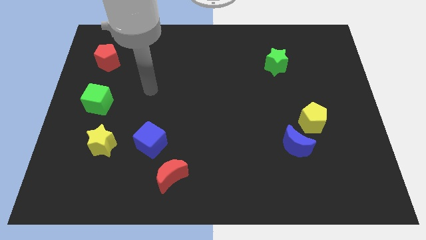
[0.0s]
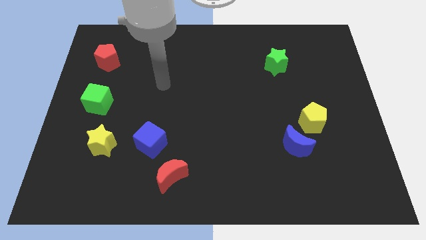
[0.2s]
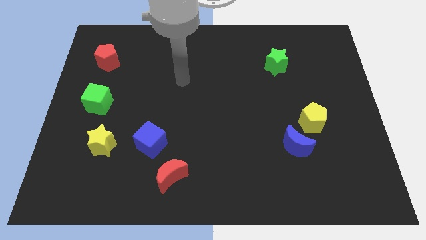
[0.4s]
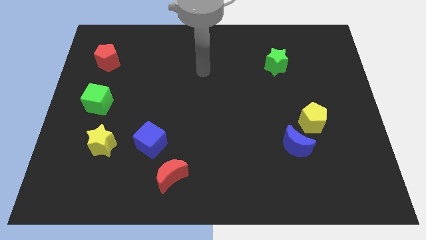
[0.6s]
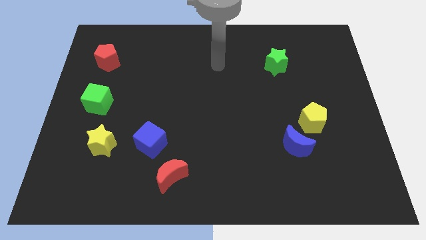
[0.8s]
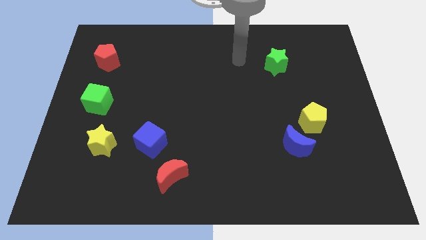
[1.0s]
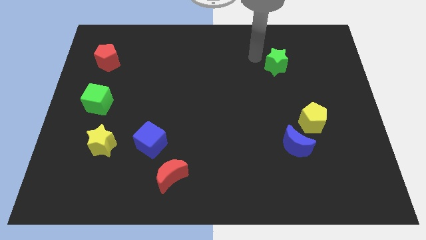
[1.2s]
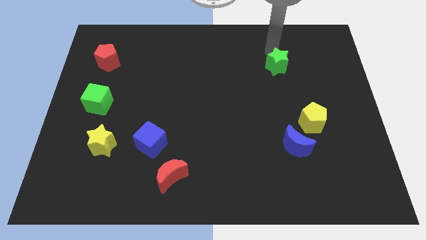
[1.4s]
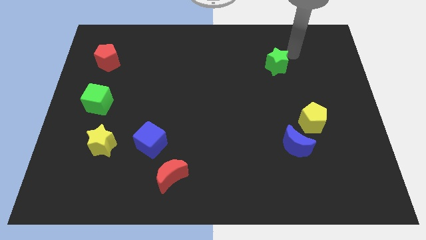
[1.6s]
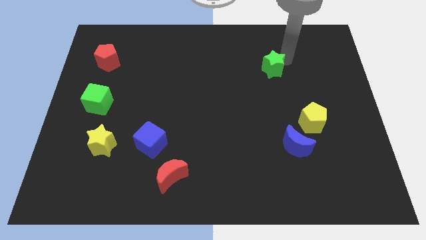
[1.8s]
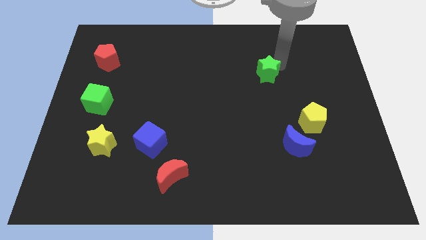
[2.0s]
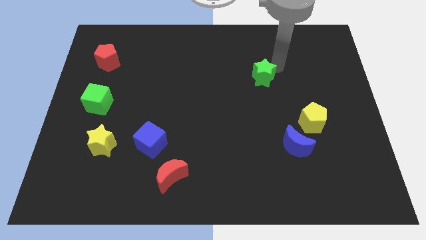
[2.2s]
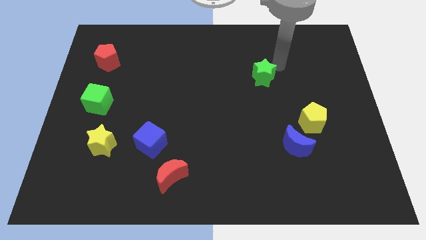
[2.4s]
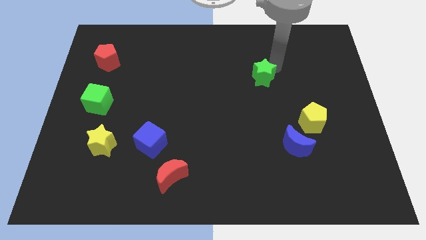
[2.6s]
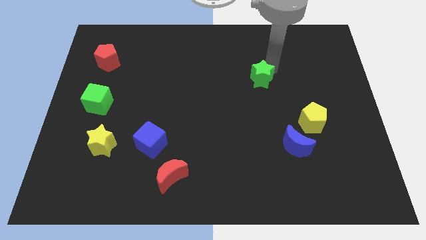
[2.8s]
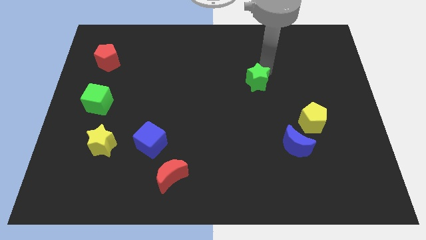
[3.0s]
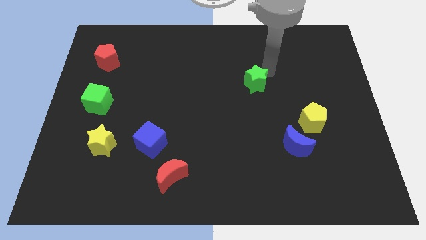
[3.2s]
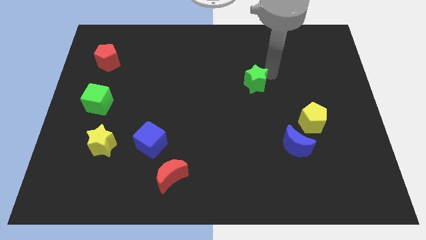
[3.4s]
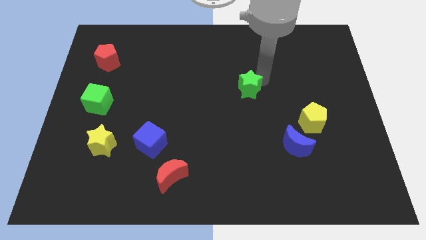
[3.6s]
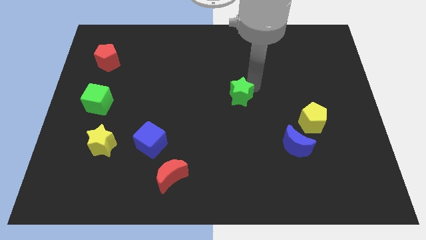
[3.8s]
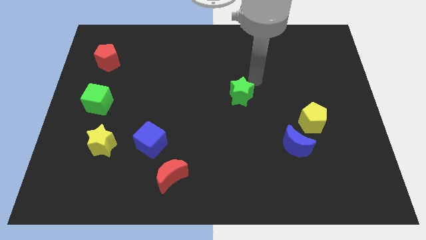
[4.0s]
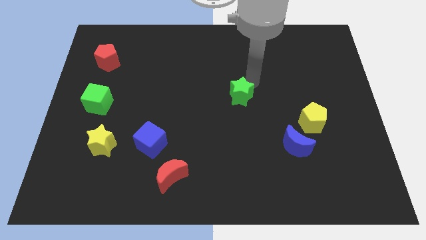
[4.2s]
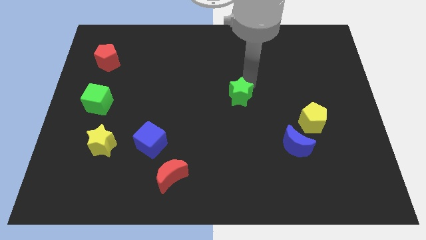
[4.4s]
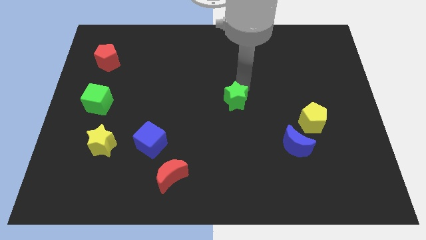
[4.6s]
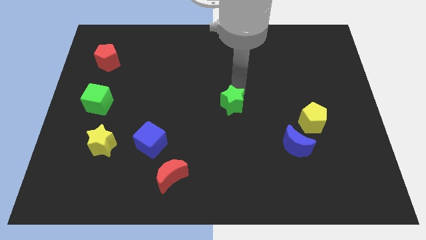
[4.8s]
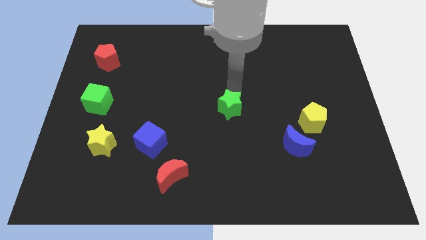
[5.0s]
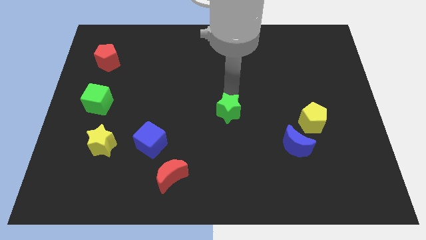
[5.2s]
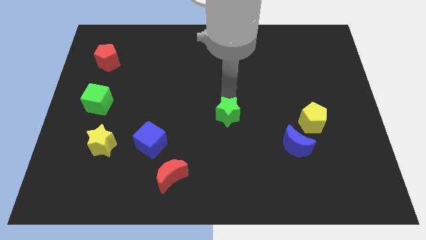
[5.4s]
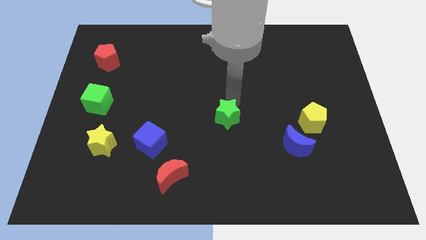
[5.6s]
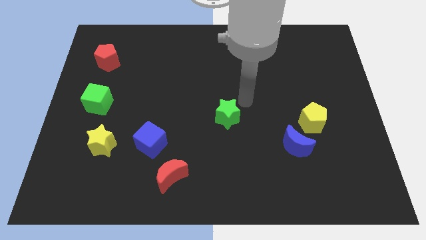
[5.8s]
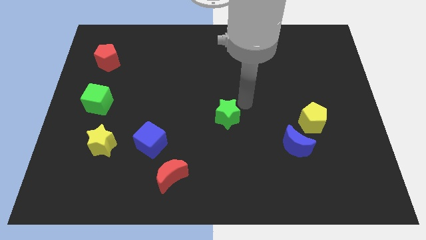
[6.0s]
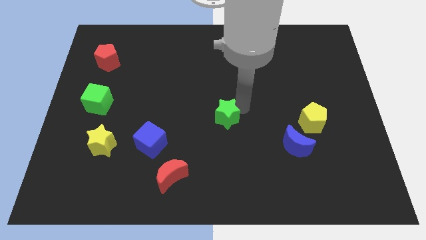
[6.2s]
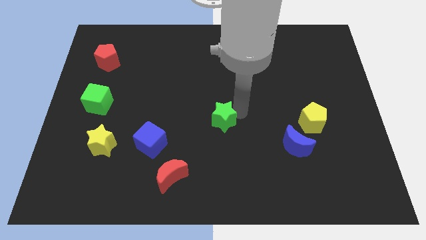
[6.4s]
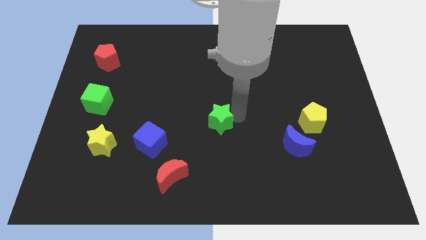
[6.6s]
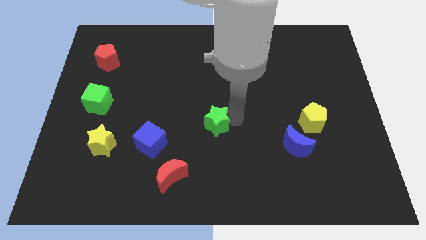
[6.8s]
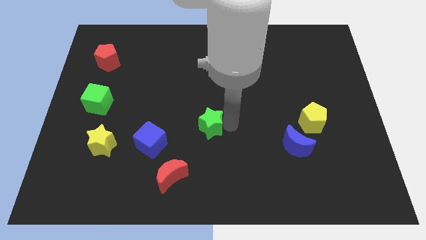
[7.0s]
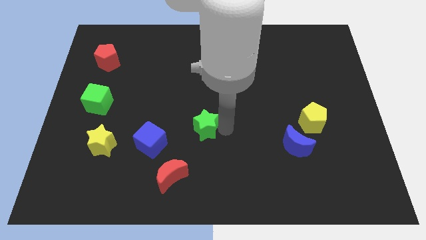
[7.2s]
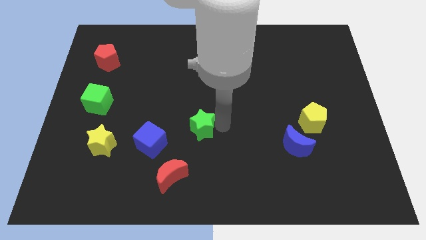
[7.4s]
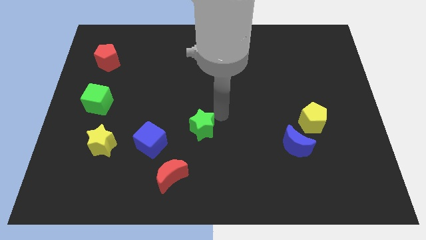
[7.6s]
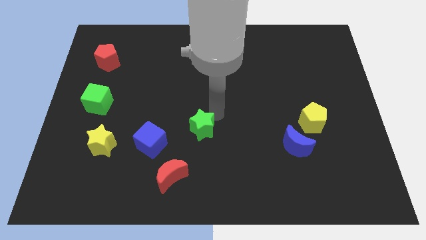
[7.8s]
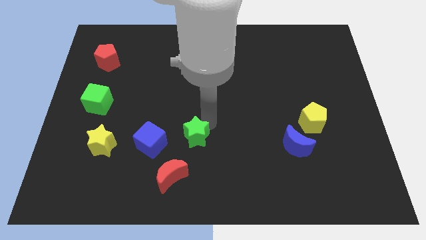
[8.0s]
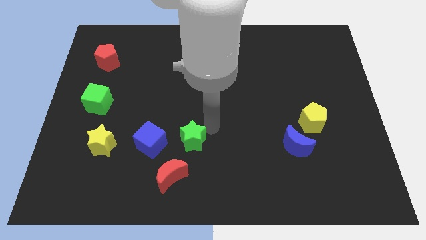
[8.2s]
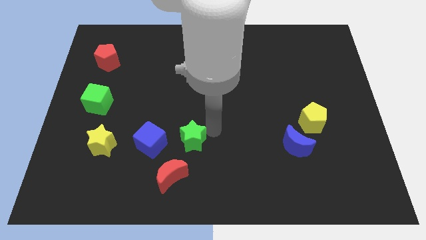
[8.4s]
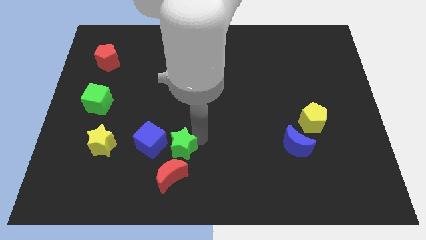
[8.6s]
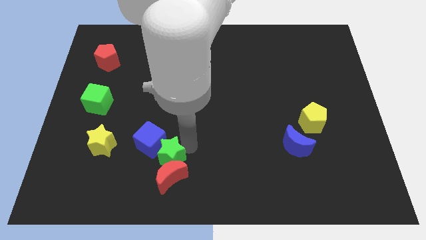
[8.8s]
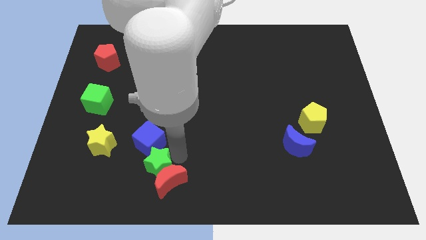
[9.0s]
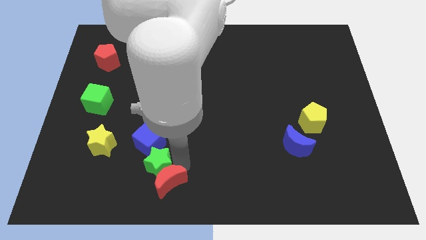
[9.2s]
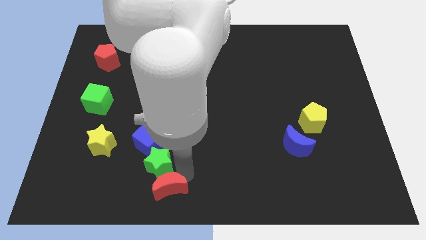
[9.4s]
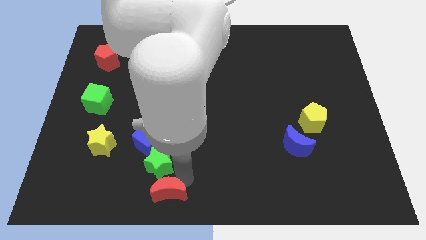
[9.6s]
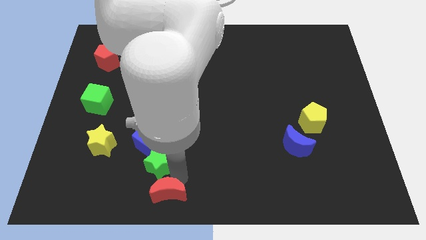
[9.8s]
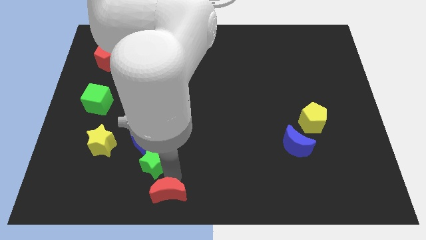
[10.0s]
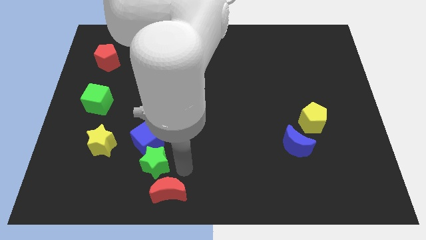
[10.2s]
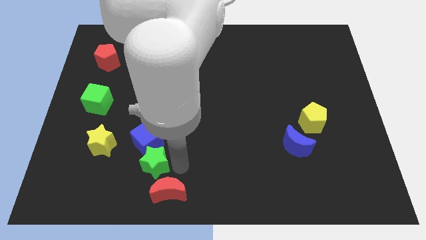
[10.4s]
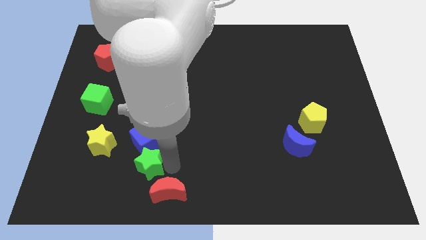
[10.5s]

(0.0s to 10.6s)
put the green star to the bottom right of the yellow star

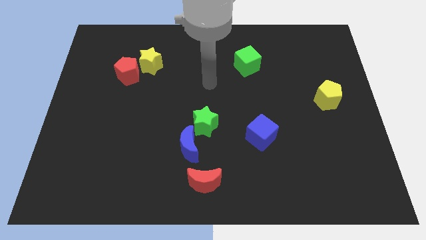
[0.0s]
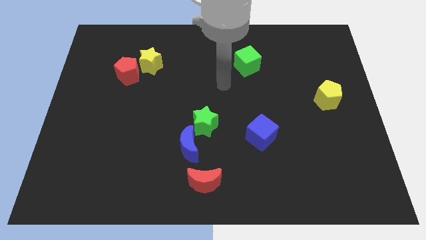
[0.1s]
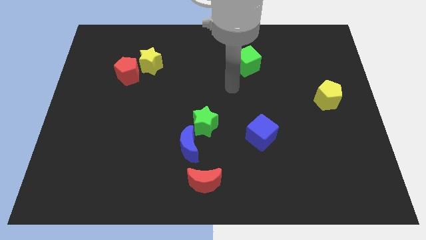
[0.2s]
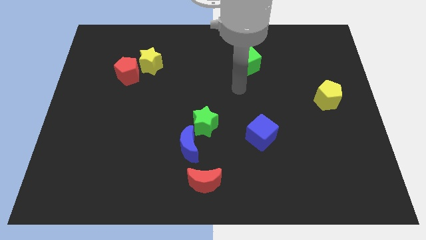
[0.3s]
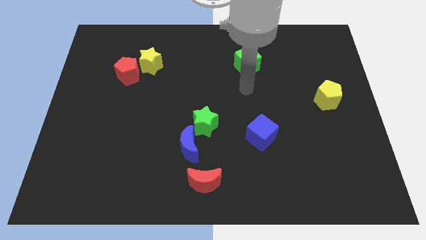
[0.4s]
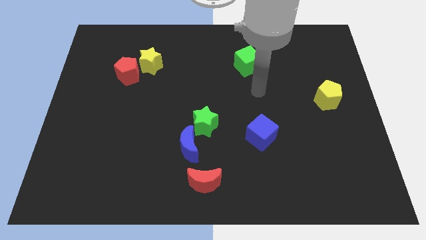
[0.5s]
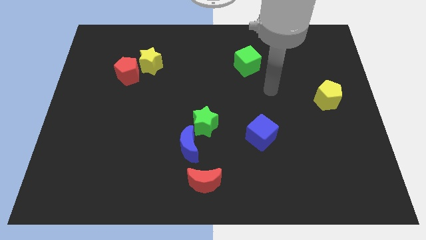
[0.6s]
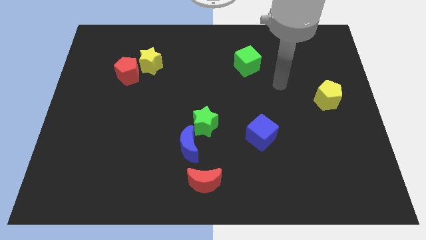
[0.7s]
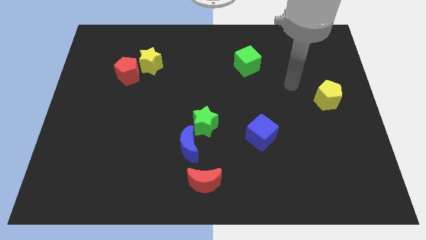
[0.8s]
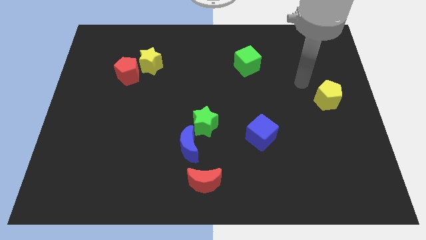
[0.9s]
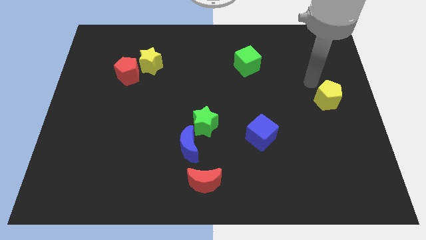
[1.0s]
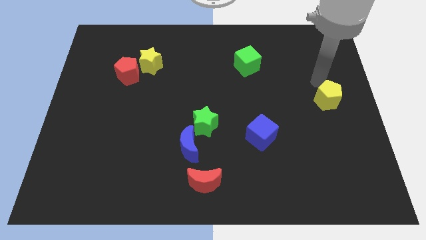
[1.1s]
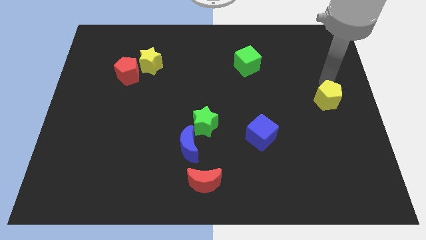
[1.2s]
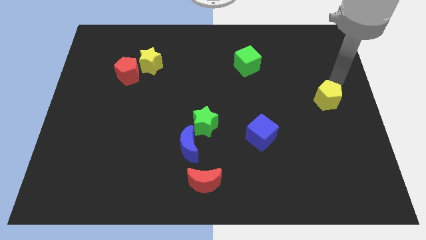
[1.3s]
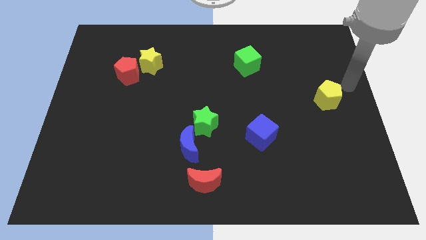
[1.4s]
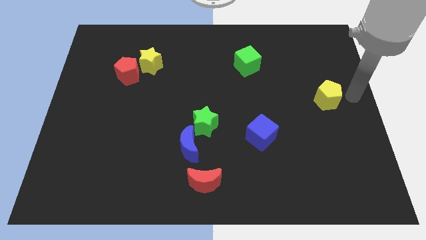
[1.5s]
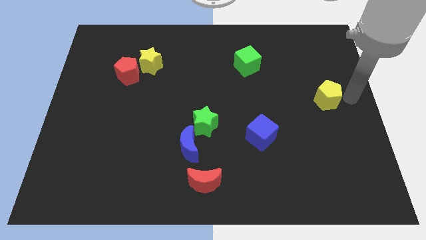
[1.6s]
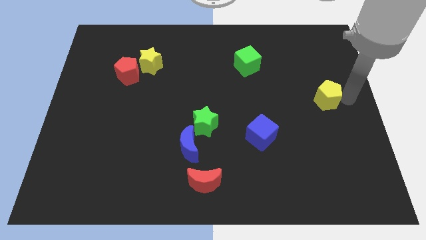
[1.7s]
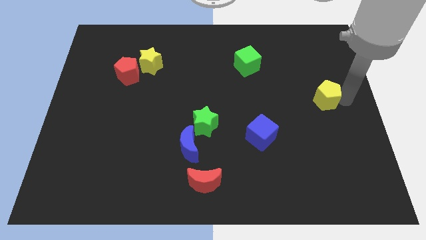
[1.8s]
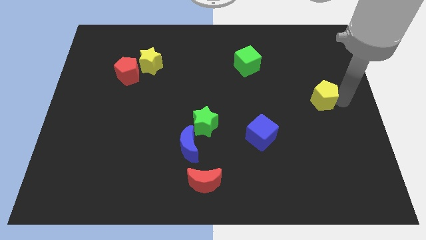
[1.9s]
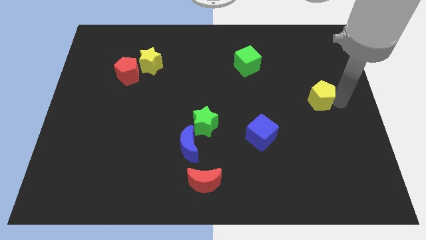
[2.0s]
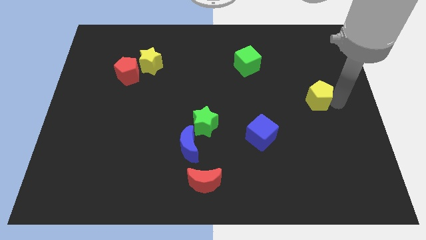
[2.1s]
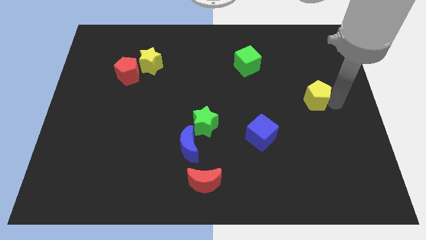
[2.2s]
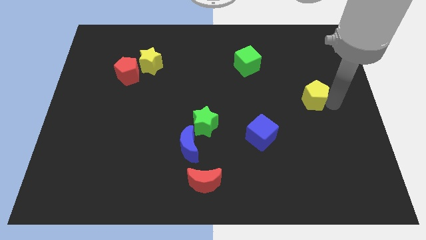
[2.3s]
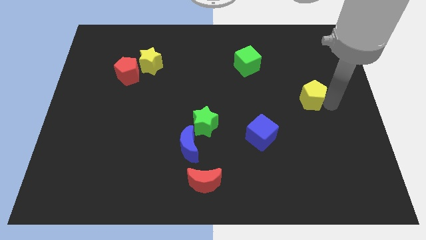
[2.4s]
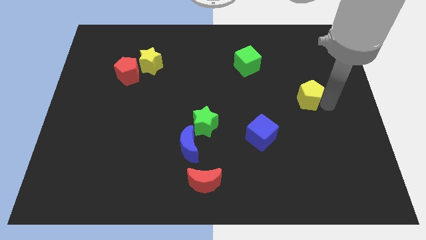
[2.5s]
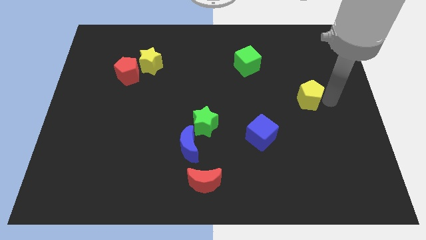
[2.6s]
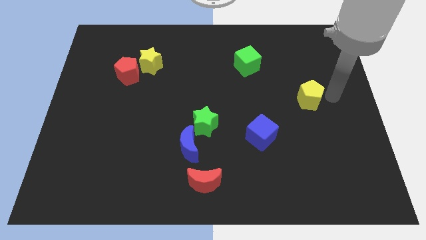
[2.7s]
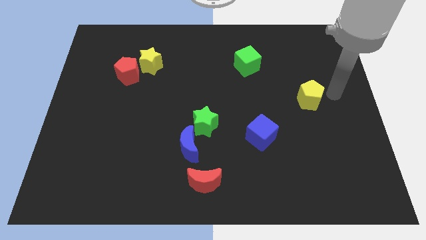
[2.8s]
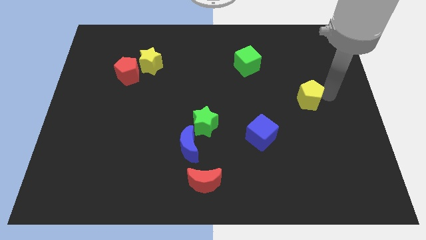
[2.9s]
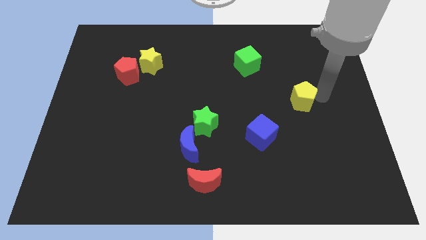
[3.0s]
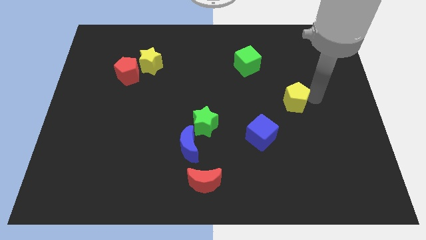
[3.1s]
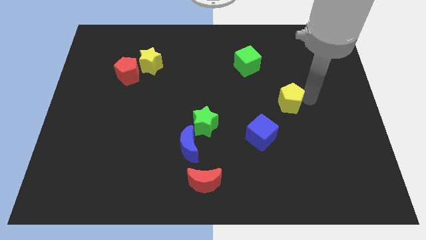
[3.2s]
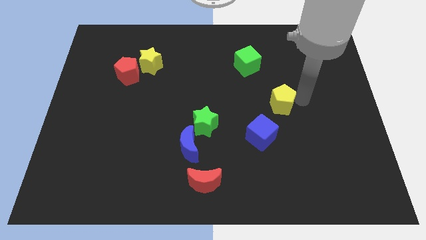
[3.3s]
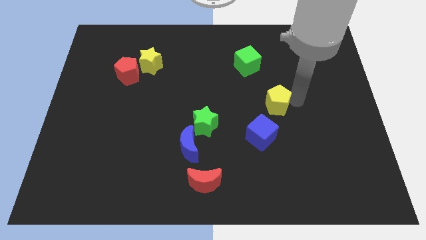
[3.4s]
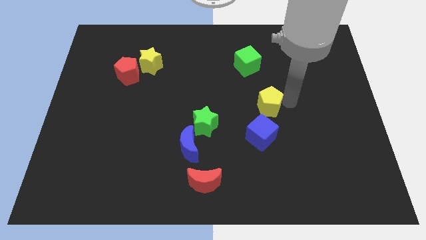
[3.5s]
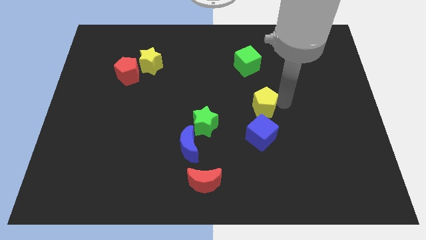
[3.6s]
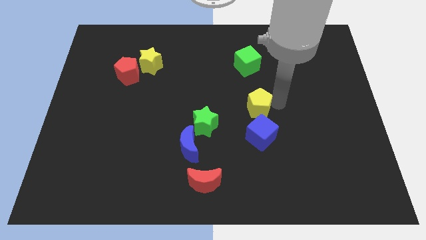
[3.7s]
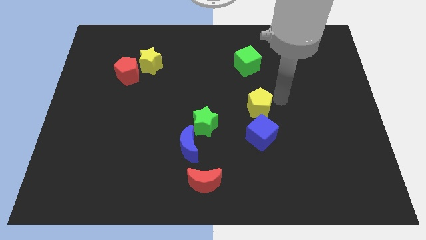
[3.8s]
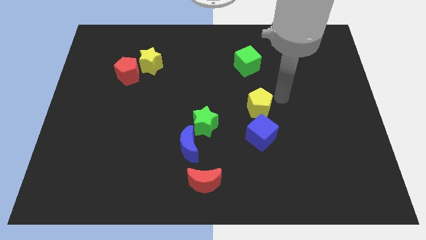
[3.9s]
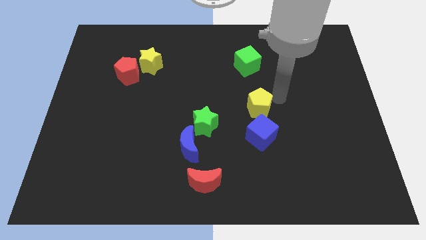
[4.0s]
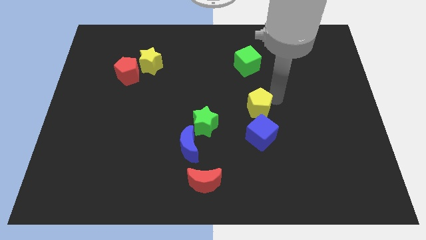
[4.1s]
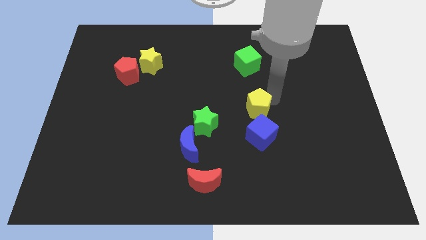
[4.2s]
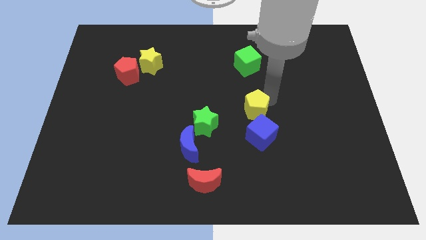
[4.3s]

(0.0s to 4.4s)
move the yellow pentagon to the top left of the blue cube
